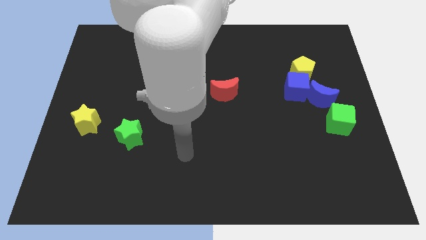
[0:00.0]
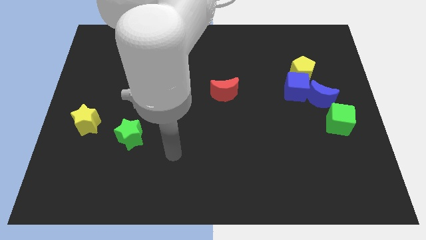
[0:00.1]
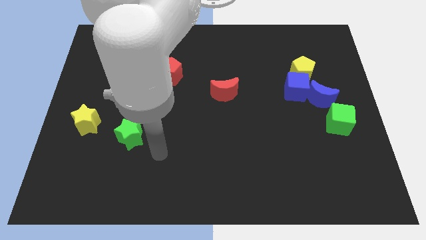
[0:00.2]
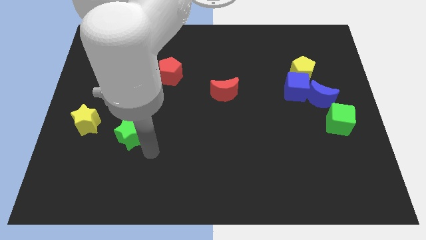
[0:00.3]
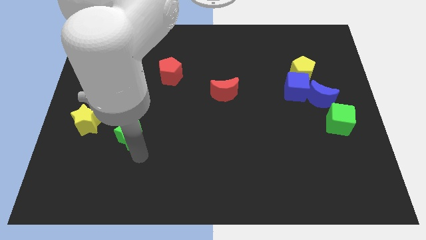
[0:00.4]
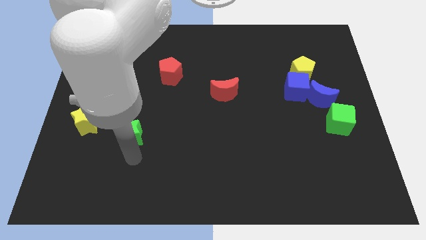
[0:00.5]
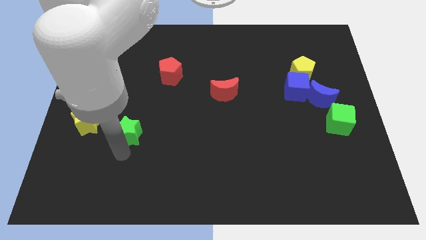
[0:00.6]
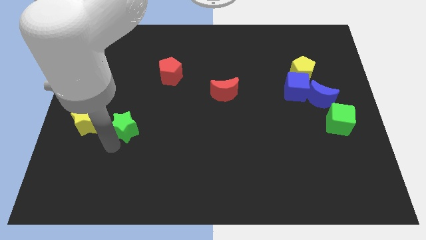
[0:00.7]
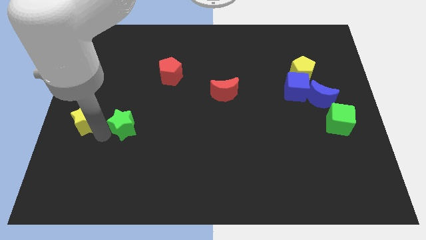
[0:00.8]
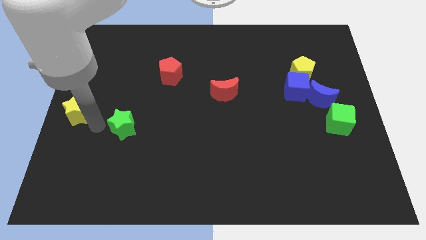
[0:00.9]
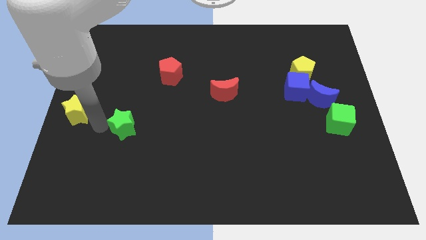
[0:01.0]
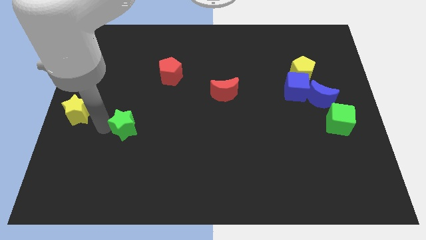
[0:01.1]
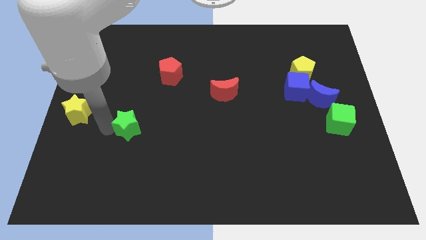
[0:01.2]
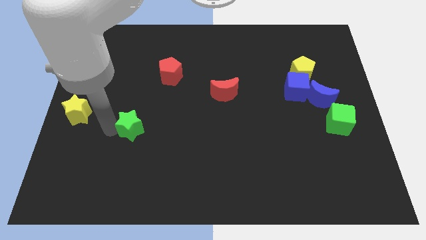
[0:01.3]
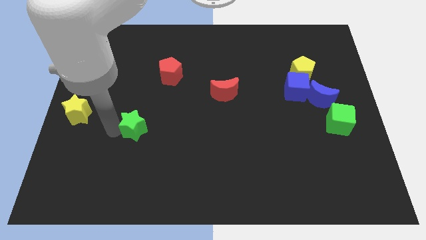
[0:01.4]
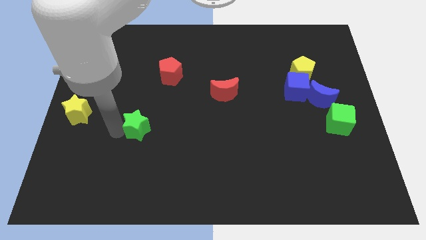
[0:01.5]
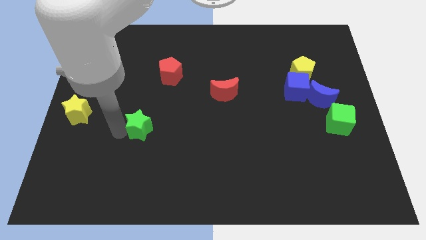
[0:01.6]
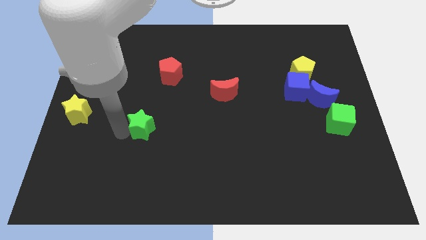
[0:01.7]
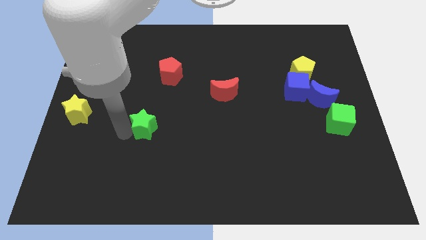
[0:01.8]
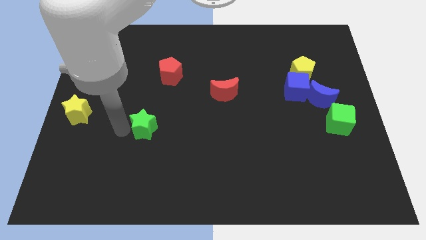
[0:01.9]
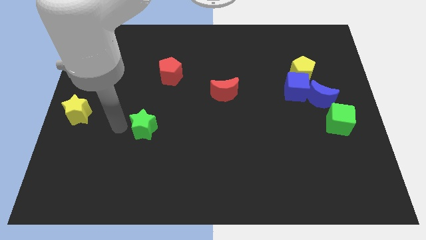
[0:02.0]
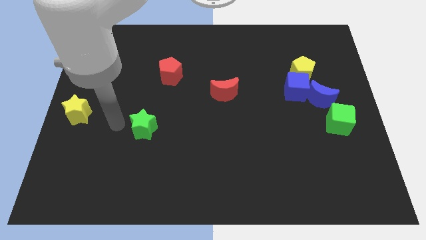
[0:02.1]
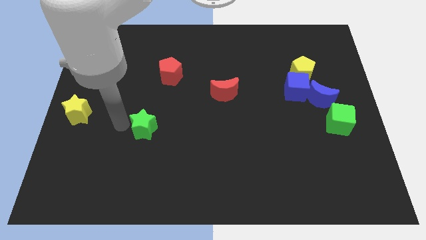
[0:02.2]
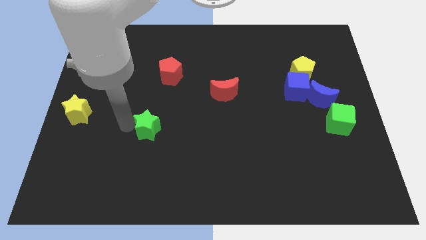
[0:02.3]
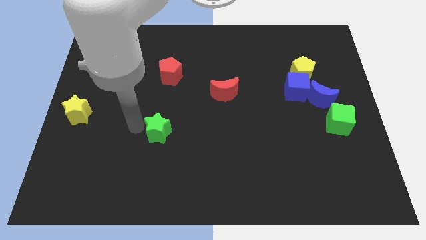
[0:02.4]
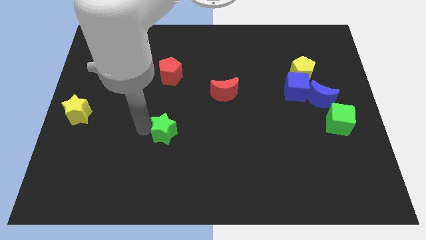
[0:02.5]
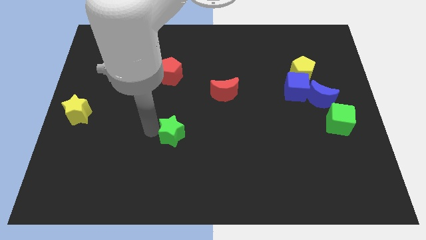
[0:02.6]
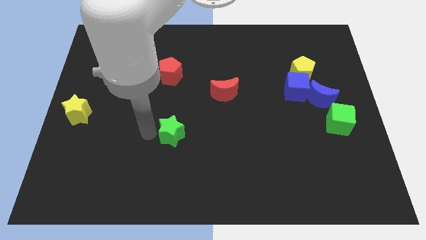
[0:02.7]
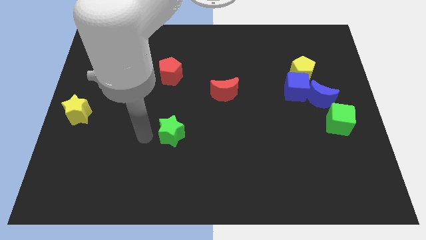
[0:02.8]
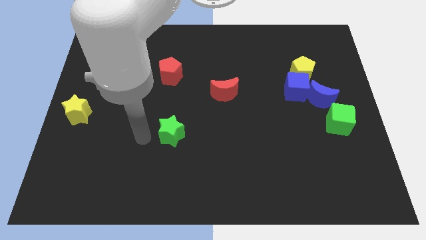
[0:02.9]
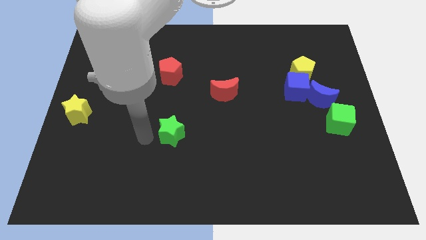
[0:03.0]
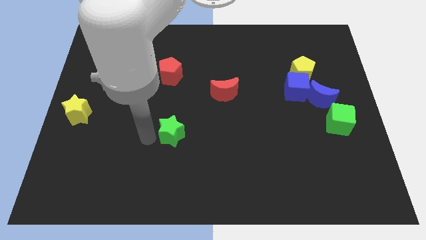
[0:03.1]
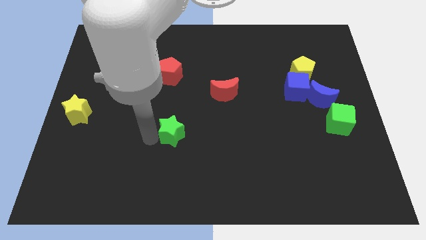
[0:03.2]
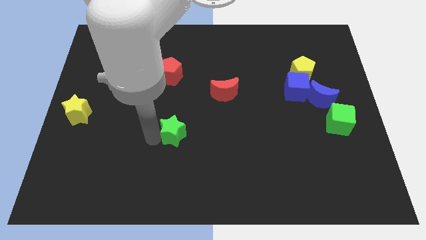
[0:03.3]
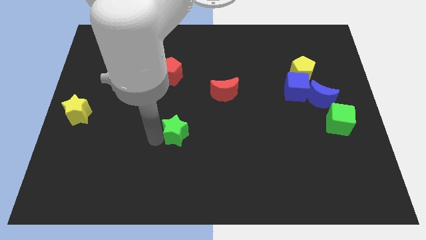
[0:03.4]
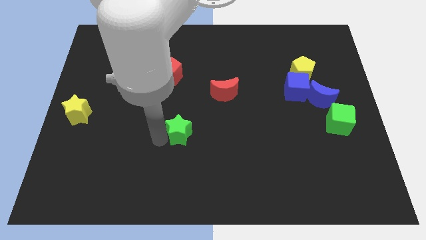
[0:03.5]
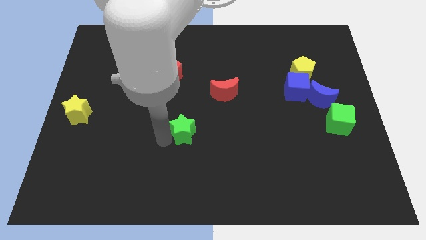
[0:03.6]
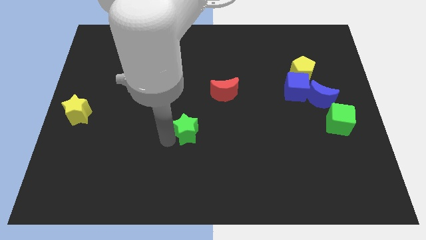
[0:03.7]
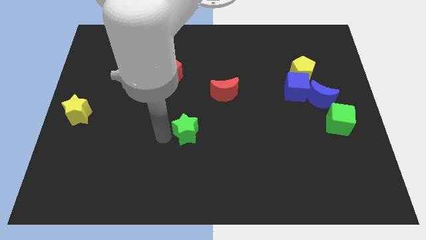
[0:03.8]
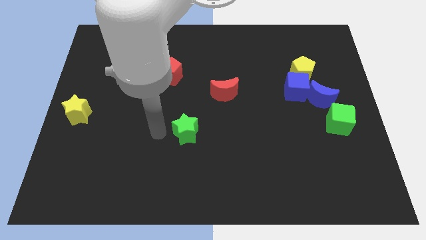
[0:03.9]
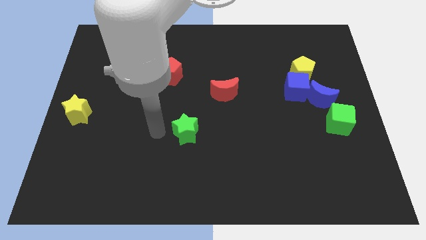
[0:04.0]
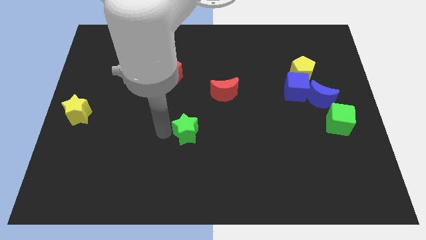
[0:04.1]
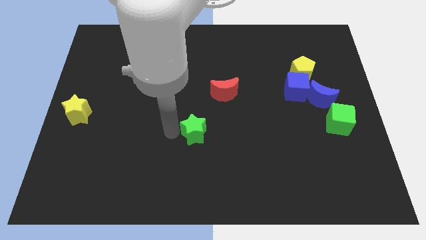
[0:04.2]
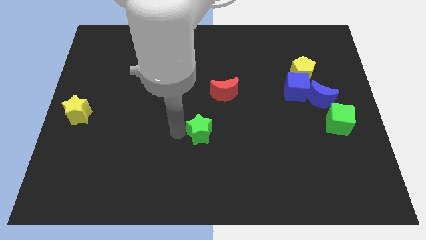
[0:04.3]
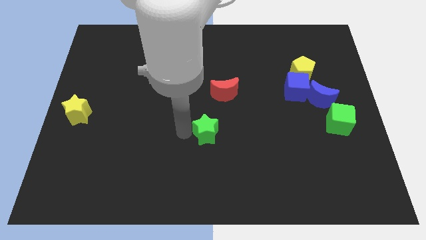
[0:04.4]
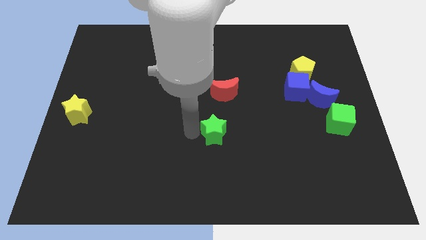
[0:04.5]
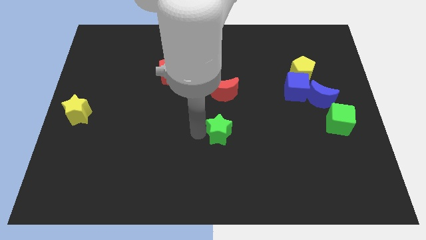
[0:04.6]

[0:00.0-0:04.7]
push the green star to the right

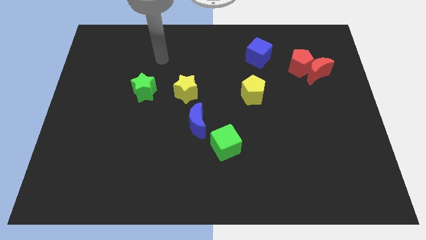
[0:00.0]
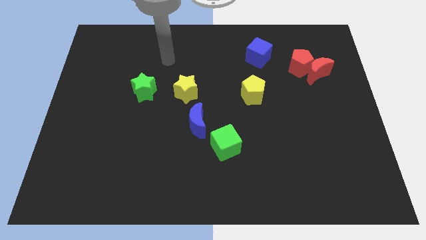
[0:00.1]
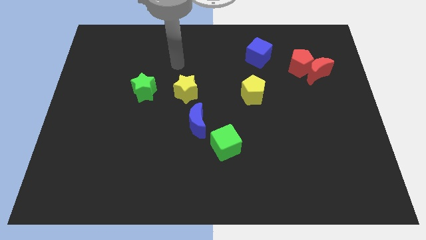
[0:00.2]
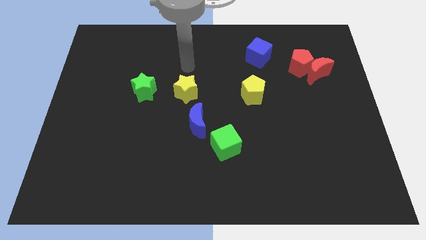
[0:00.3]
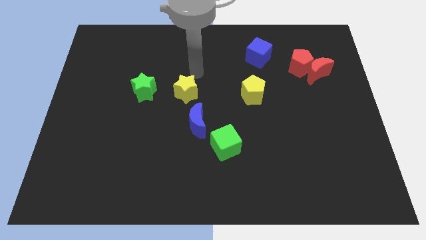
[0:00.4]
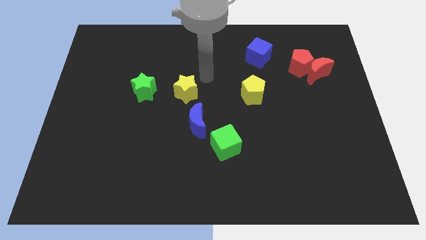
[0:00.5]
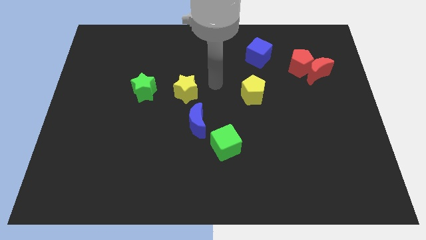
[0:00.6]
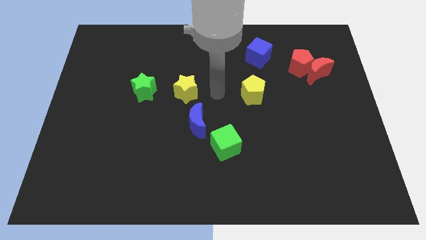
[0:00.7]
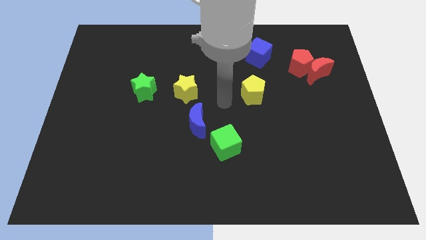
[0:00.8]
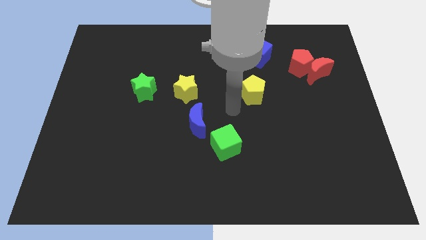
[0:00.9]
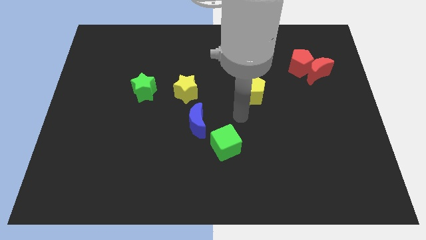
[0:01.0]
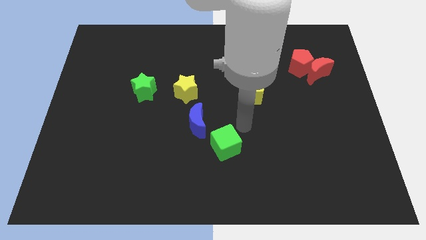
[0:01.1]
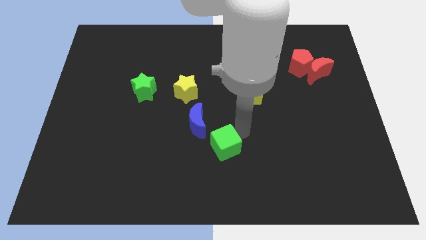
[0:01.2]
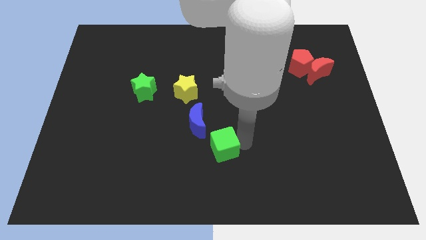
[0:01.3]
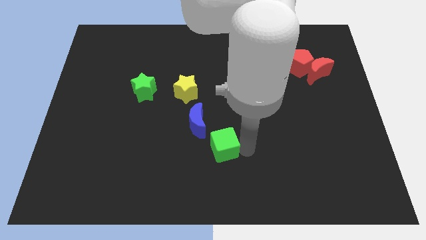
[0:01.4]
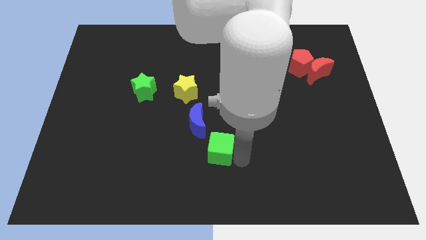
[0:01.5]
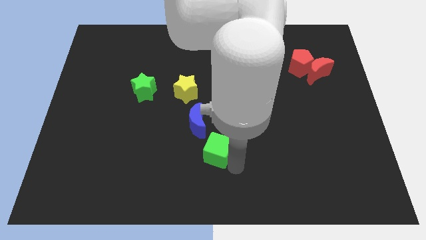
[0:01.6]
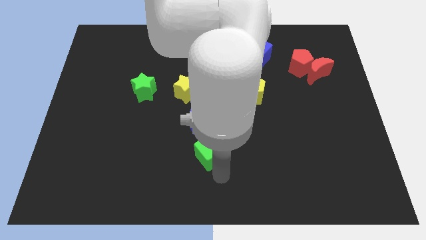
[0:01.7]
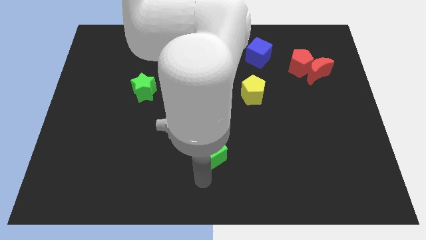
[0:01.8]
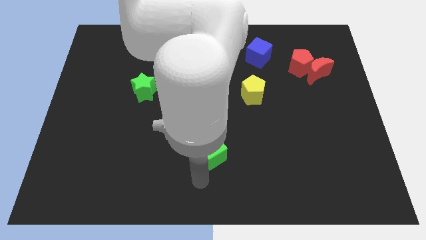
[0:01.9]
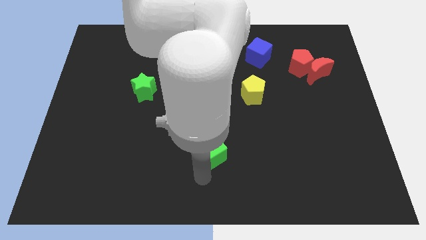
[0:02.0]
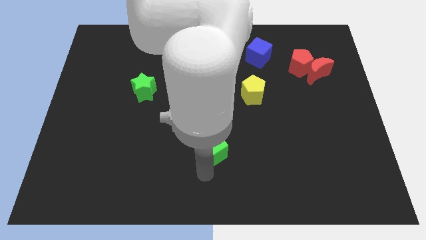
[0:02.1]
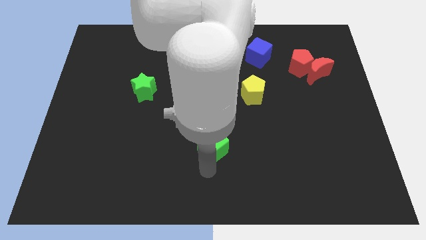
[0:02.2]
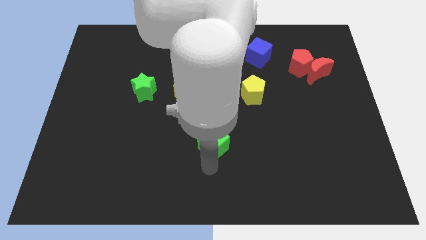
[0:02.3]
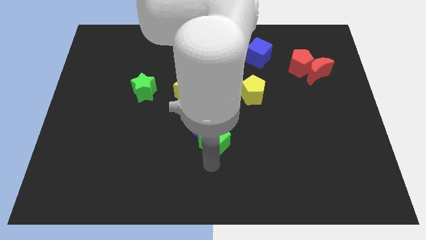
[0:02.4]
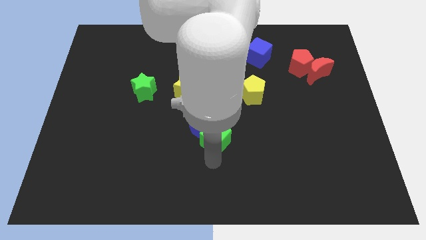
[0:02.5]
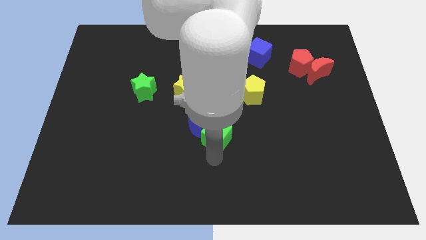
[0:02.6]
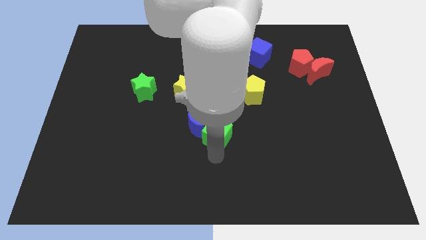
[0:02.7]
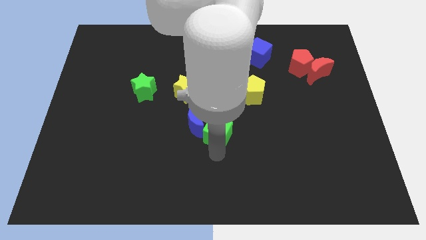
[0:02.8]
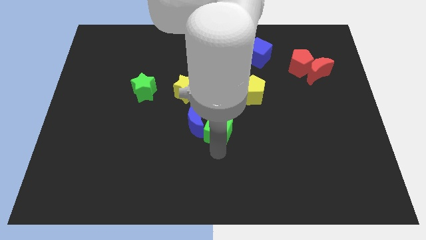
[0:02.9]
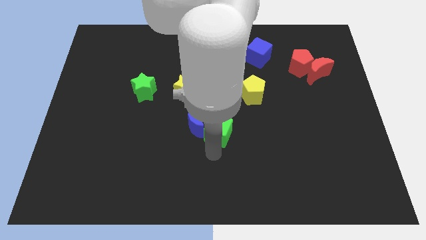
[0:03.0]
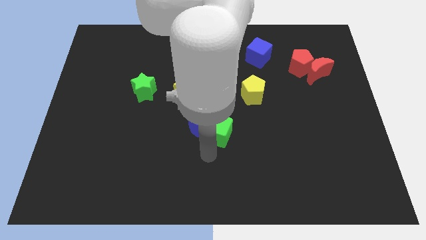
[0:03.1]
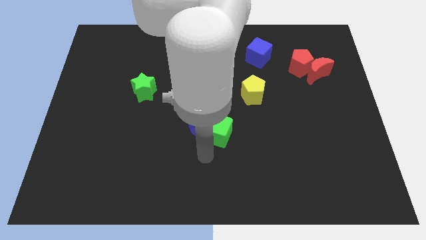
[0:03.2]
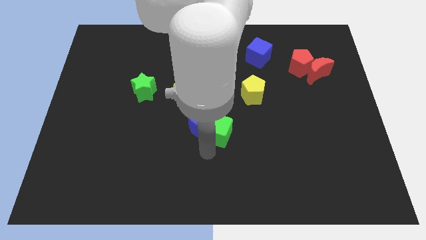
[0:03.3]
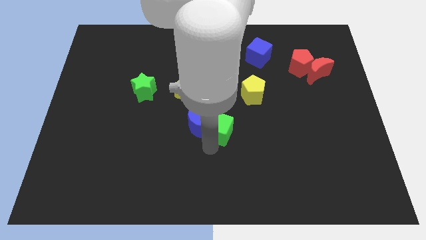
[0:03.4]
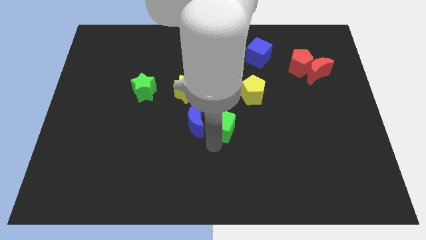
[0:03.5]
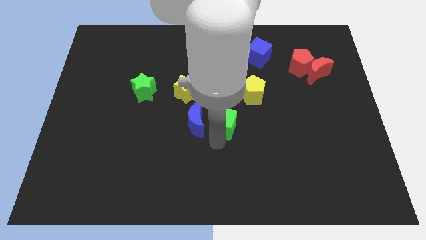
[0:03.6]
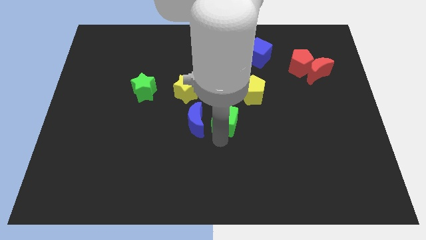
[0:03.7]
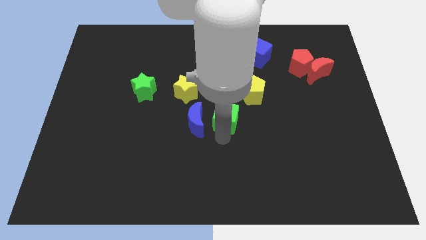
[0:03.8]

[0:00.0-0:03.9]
push the green cube a little up
